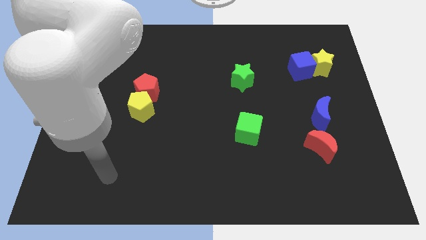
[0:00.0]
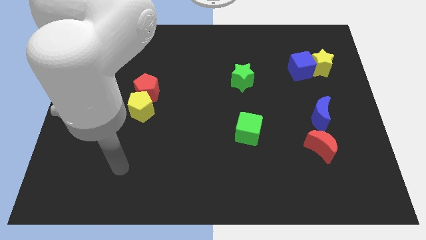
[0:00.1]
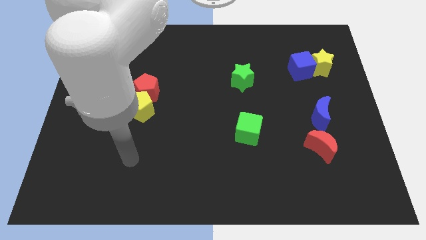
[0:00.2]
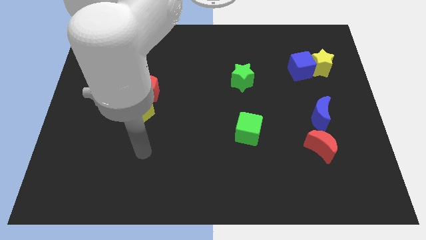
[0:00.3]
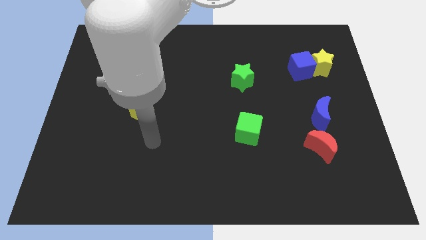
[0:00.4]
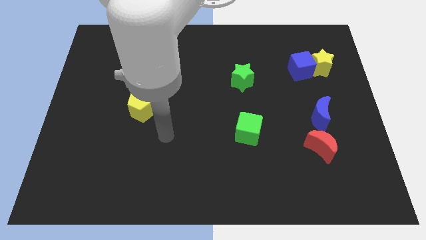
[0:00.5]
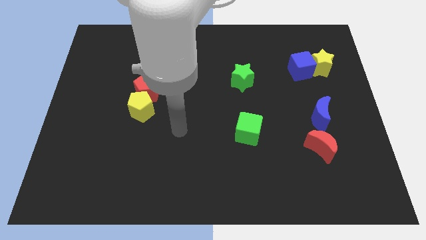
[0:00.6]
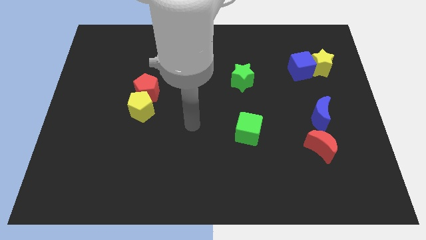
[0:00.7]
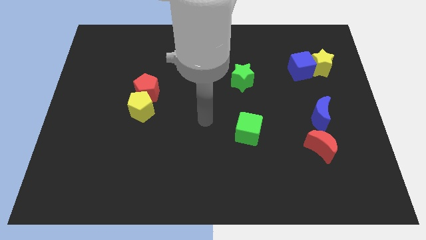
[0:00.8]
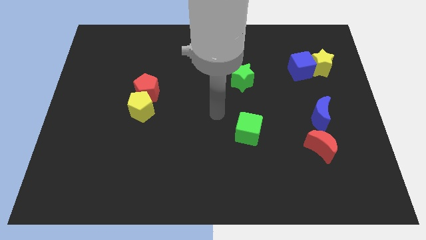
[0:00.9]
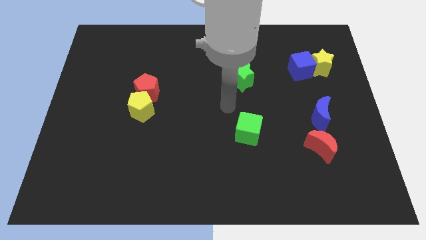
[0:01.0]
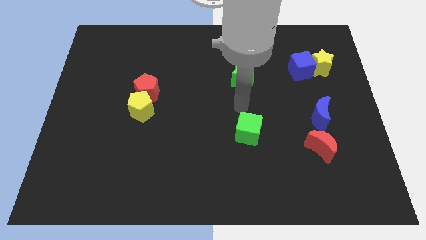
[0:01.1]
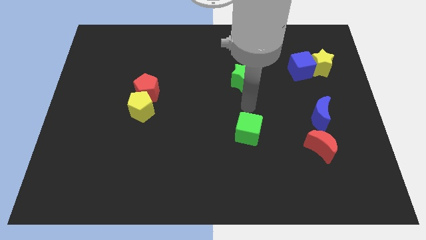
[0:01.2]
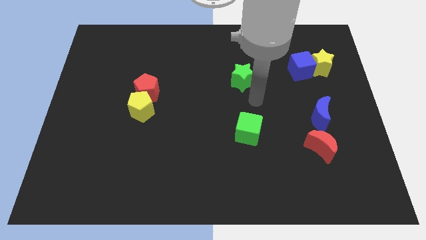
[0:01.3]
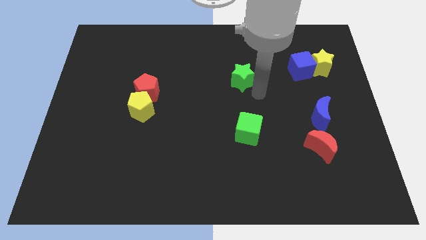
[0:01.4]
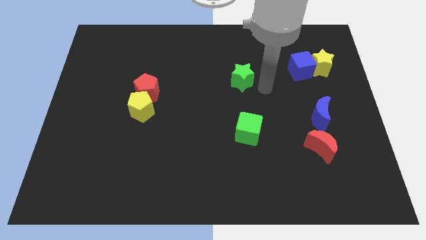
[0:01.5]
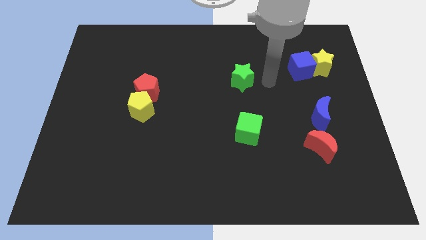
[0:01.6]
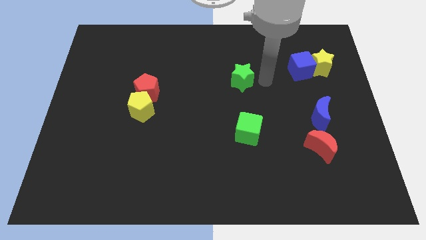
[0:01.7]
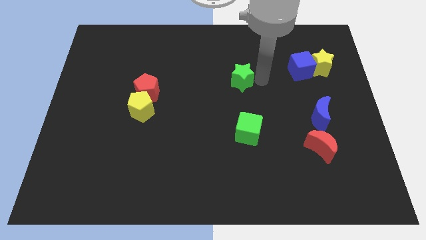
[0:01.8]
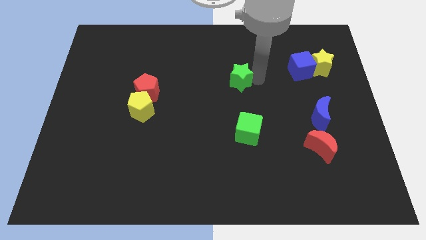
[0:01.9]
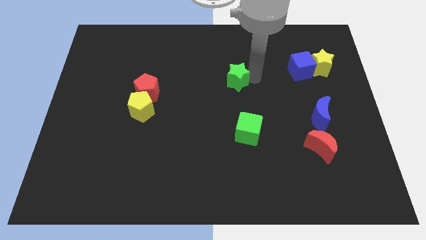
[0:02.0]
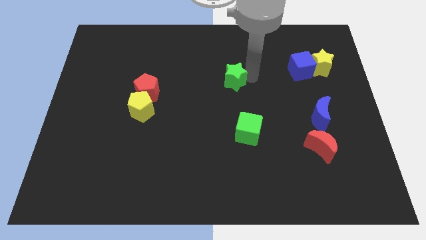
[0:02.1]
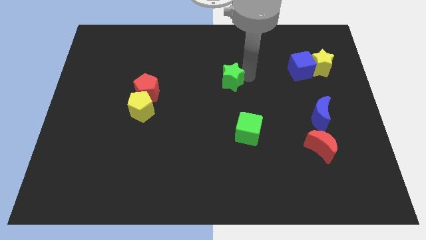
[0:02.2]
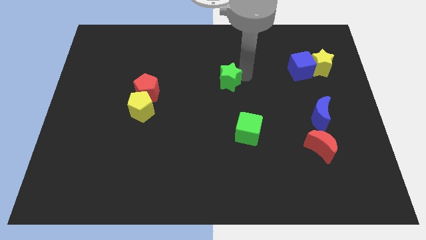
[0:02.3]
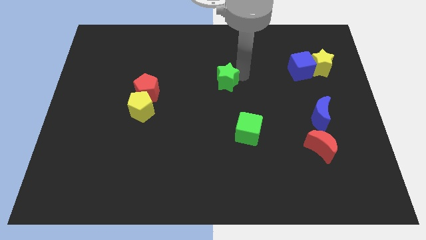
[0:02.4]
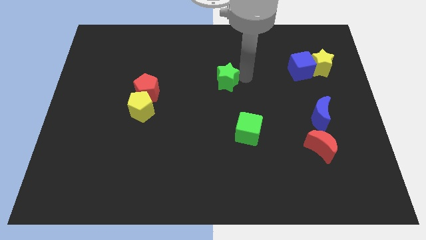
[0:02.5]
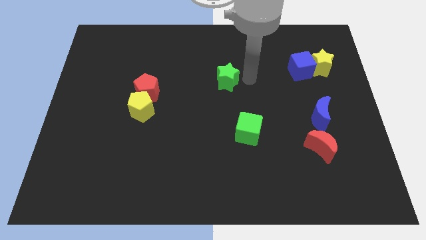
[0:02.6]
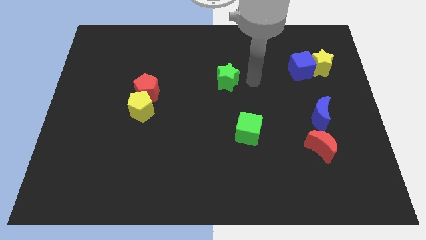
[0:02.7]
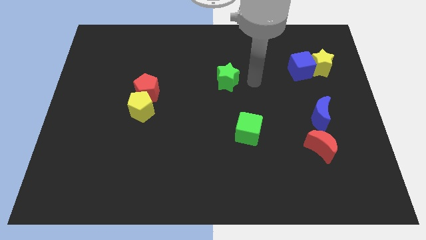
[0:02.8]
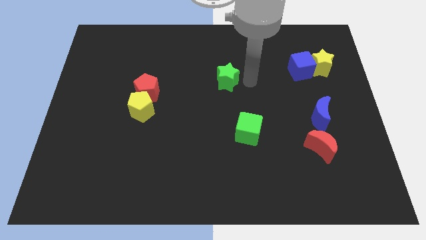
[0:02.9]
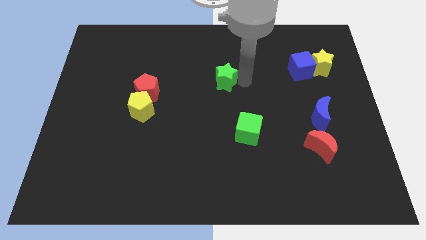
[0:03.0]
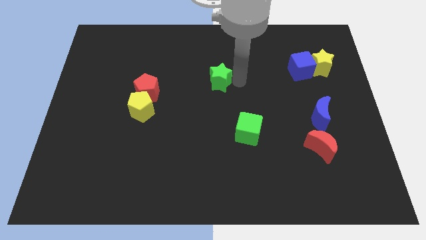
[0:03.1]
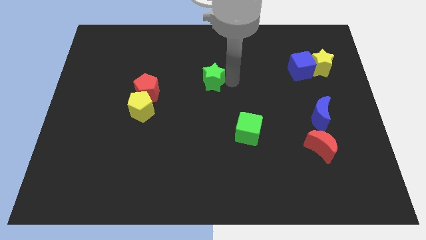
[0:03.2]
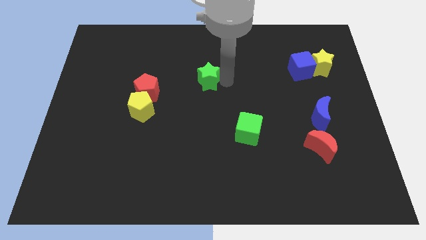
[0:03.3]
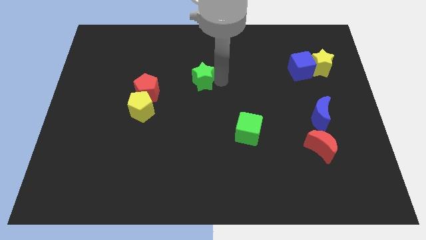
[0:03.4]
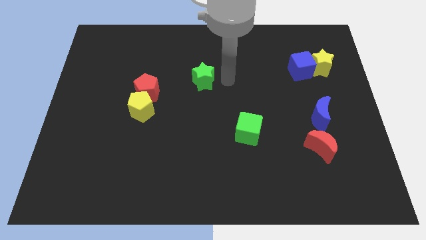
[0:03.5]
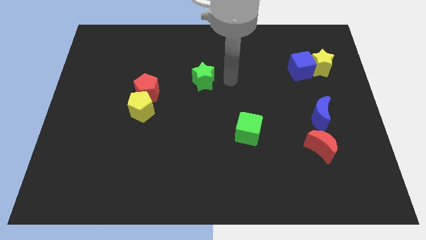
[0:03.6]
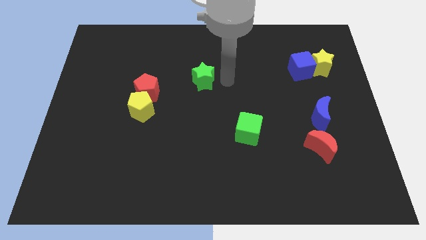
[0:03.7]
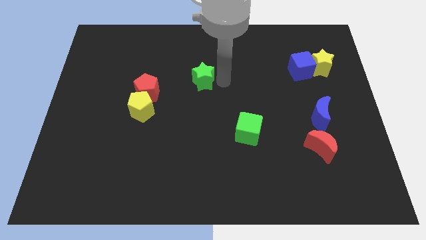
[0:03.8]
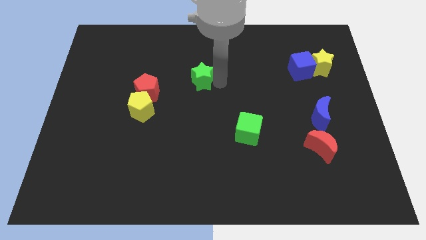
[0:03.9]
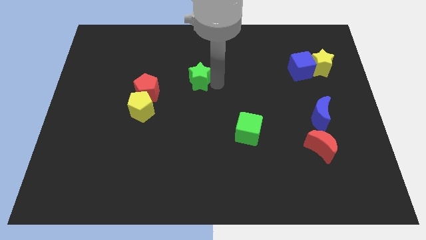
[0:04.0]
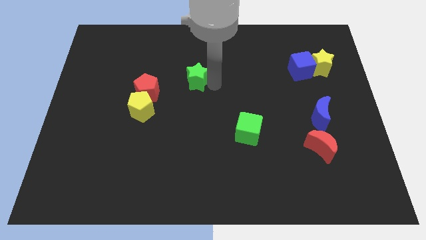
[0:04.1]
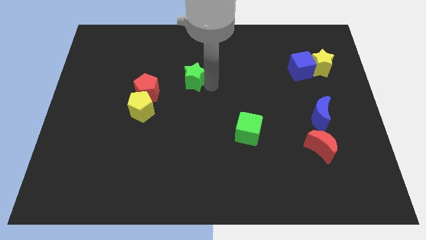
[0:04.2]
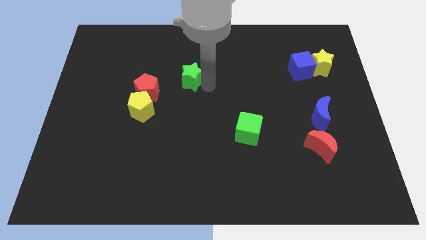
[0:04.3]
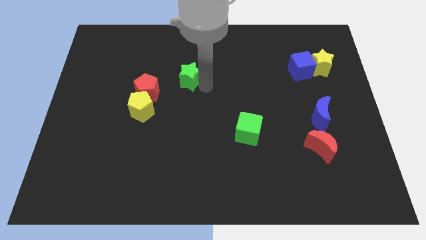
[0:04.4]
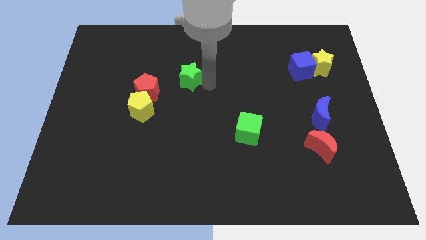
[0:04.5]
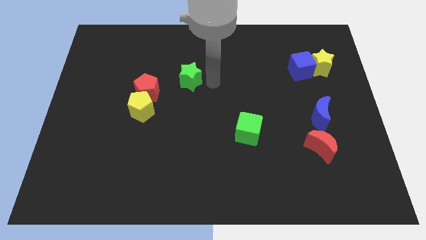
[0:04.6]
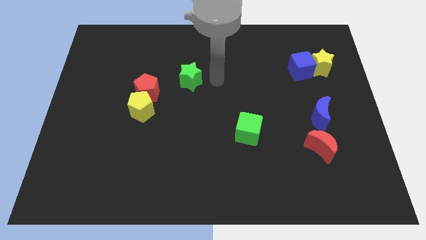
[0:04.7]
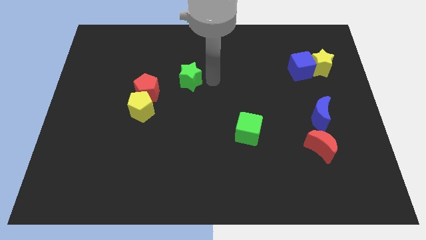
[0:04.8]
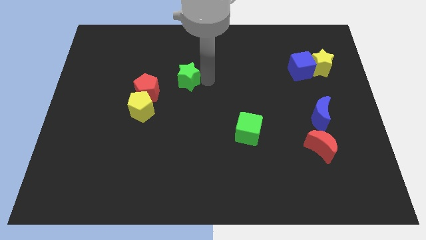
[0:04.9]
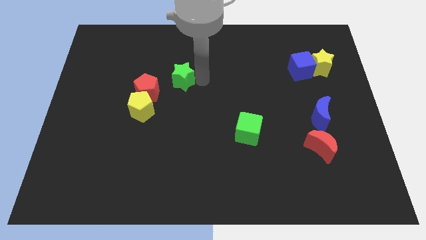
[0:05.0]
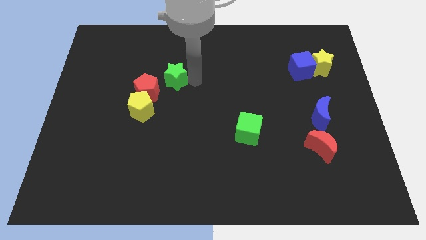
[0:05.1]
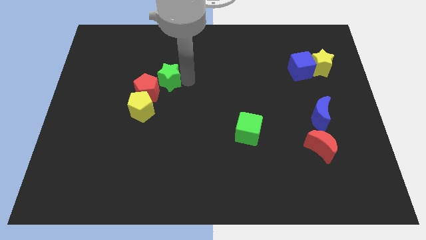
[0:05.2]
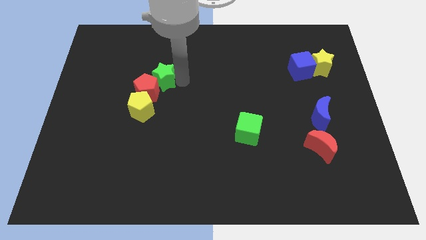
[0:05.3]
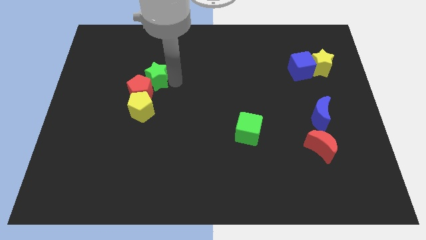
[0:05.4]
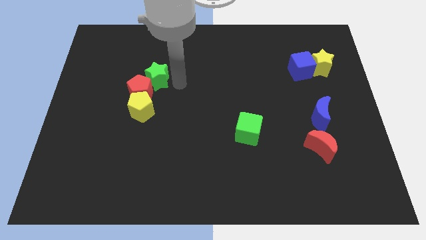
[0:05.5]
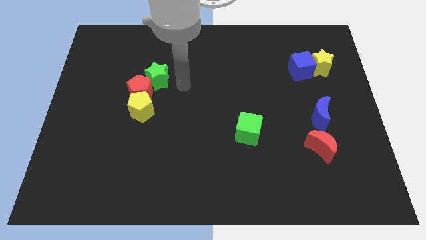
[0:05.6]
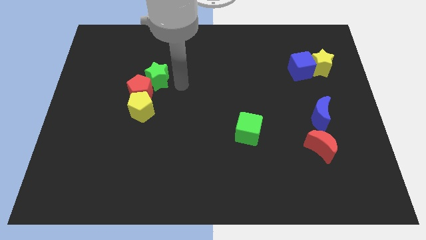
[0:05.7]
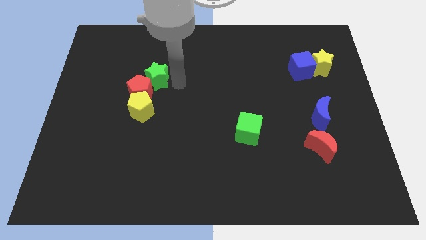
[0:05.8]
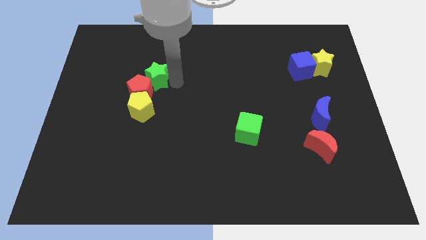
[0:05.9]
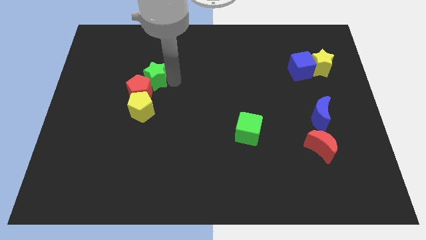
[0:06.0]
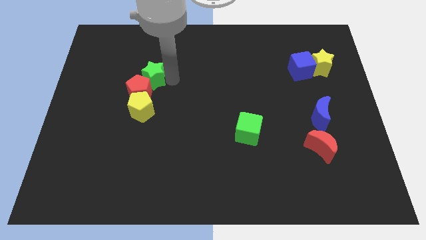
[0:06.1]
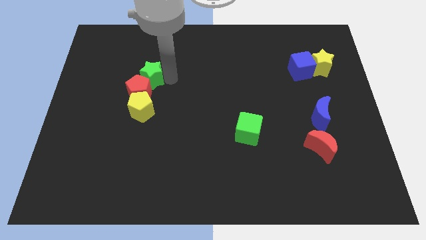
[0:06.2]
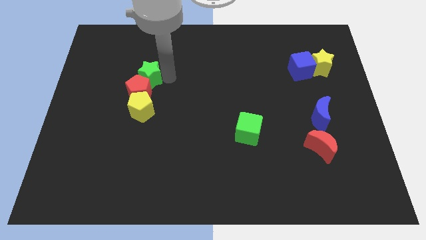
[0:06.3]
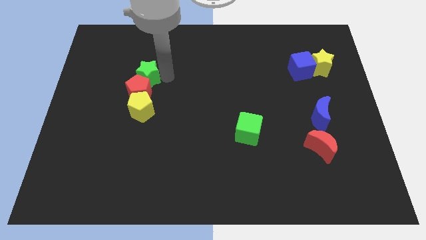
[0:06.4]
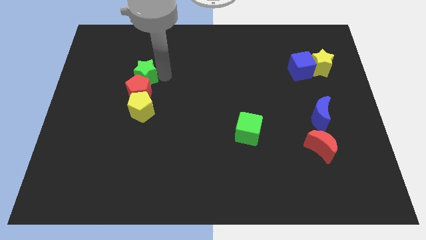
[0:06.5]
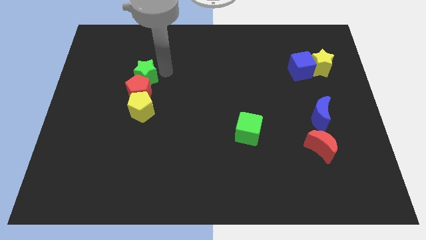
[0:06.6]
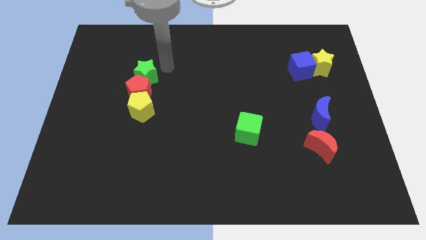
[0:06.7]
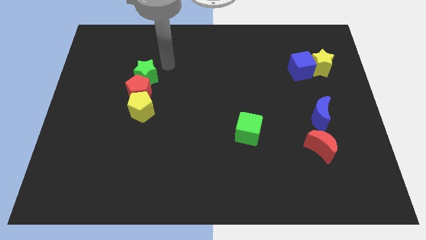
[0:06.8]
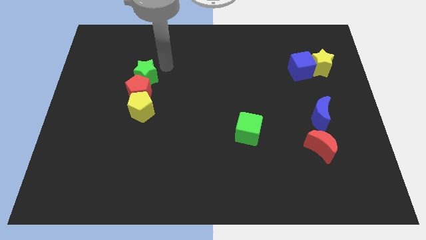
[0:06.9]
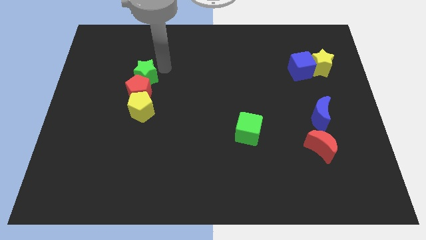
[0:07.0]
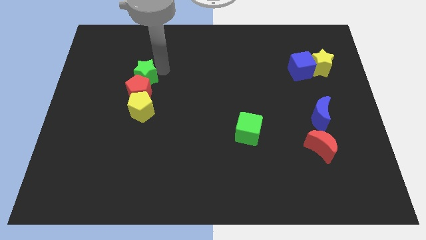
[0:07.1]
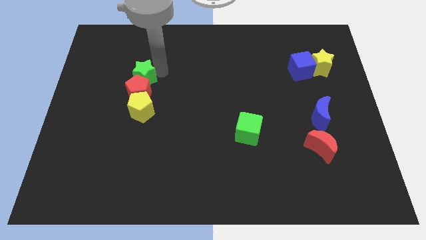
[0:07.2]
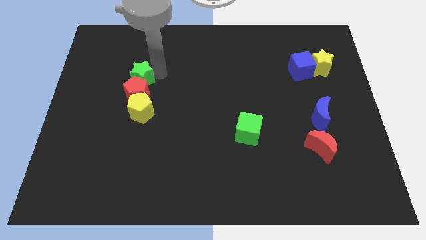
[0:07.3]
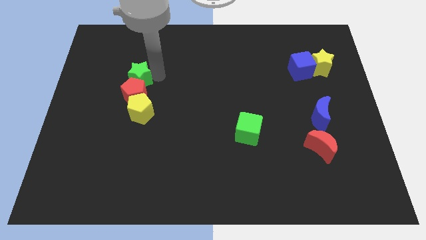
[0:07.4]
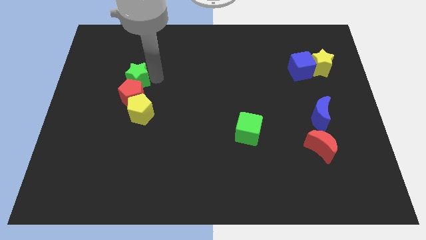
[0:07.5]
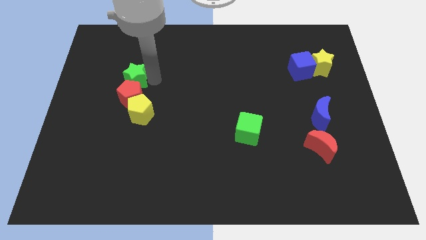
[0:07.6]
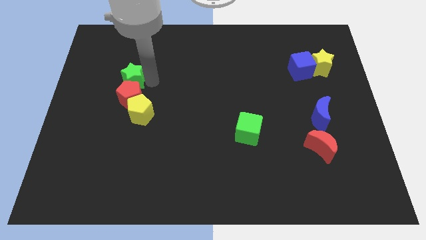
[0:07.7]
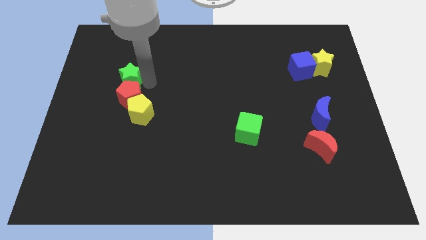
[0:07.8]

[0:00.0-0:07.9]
put the green star to the top left side of the yellow pentagon
